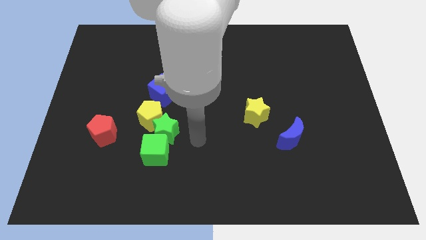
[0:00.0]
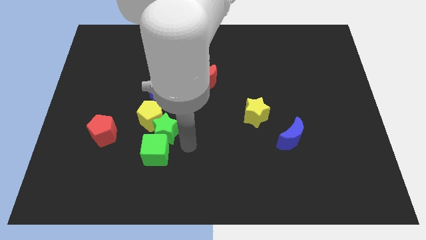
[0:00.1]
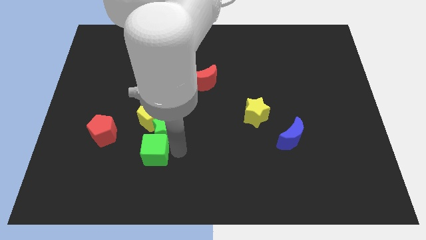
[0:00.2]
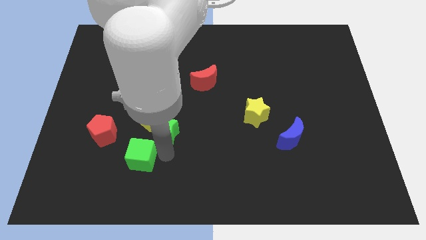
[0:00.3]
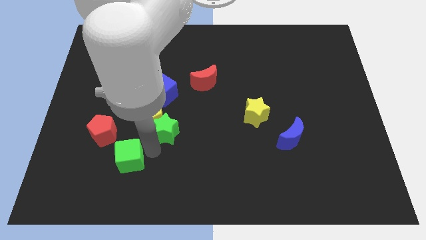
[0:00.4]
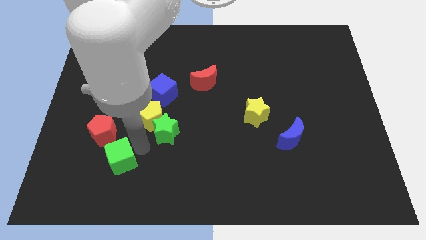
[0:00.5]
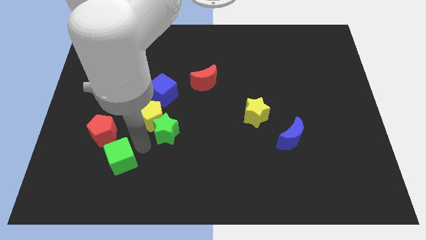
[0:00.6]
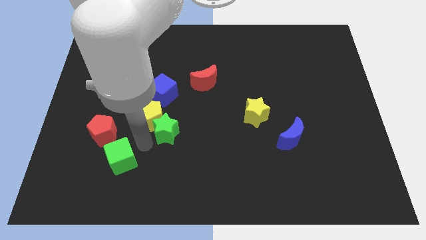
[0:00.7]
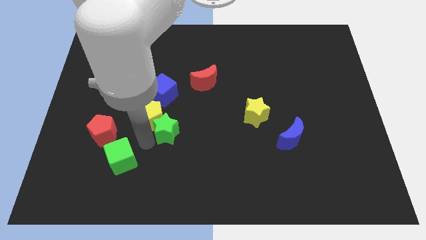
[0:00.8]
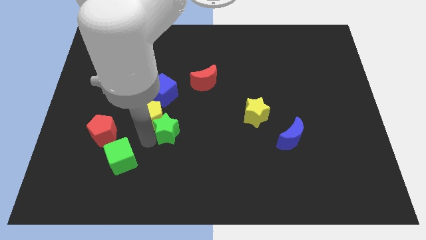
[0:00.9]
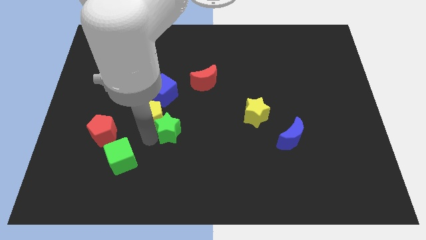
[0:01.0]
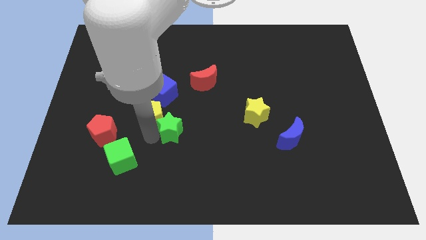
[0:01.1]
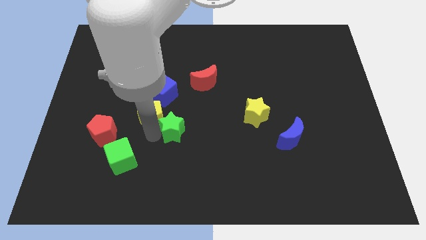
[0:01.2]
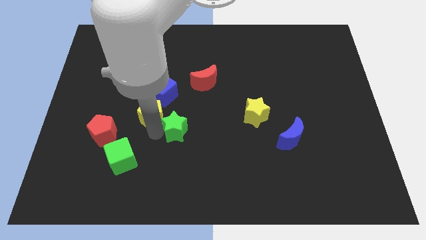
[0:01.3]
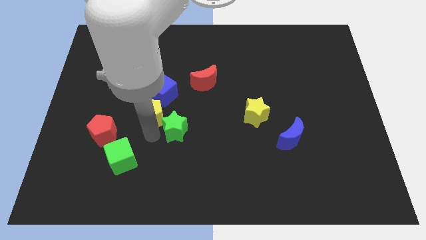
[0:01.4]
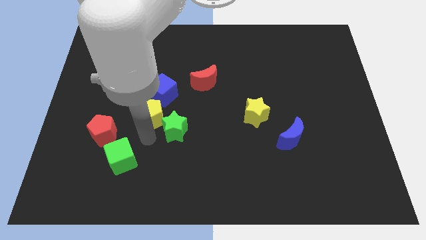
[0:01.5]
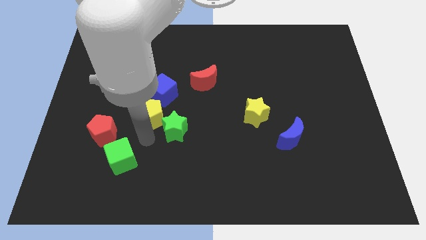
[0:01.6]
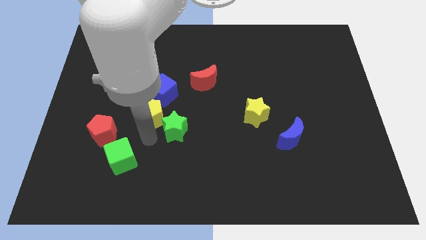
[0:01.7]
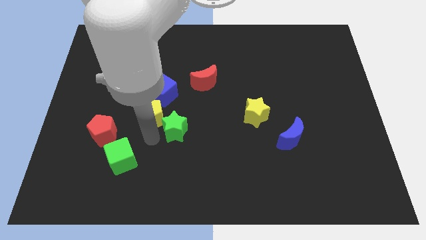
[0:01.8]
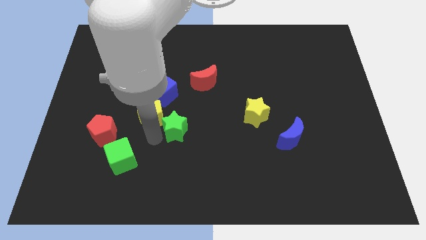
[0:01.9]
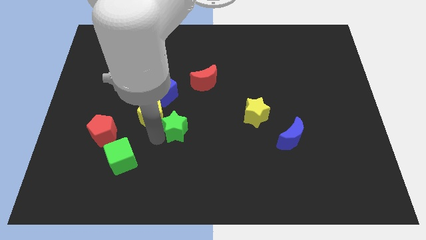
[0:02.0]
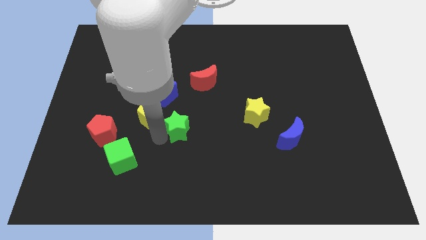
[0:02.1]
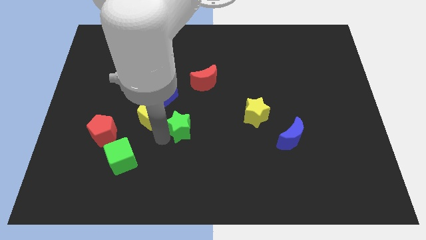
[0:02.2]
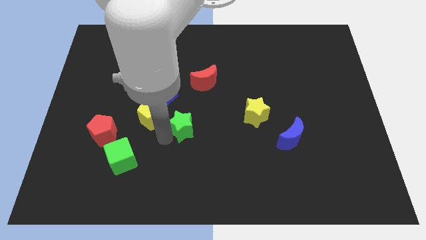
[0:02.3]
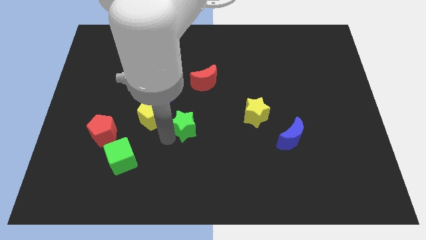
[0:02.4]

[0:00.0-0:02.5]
pull the green star apart from the yellow pentagon and green cube

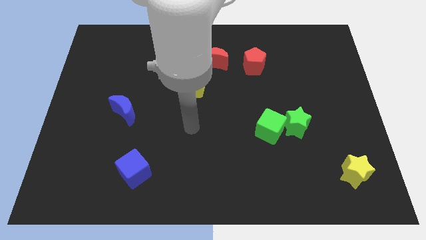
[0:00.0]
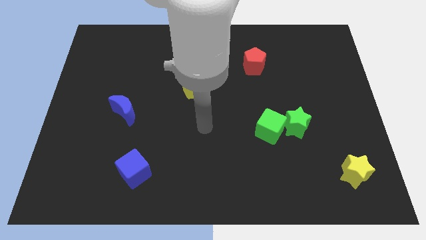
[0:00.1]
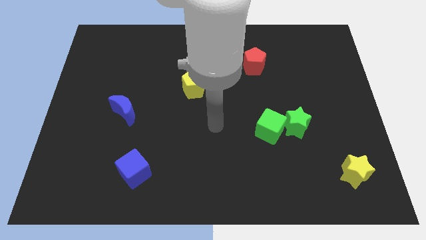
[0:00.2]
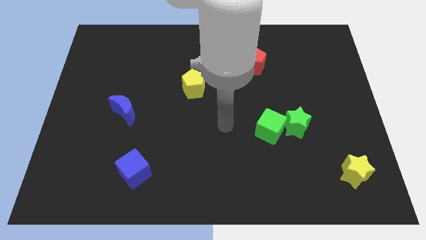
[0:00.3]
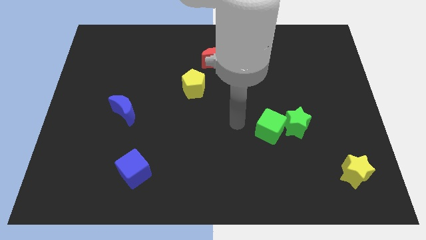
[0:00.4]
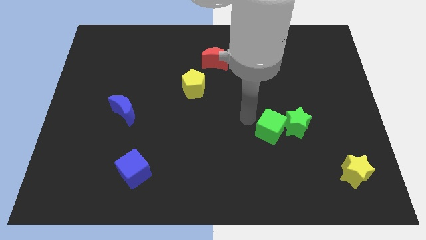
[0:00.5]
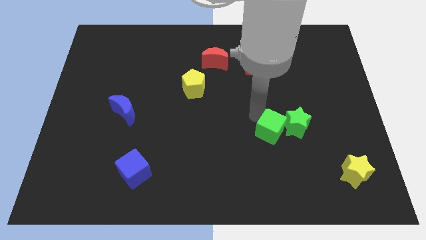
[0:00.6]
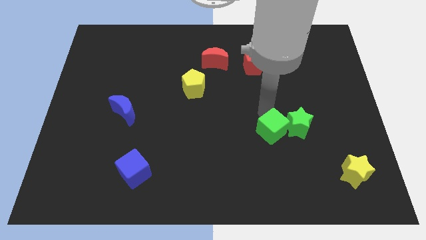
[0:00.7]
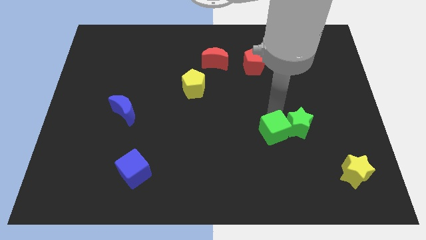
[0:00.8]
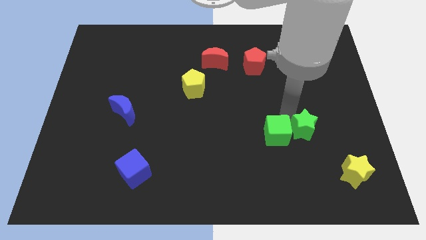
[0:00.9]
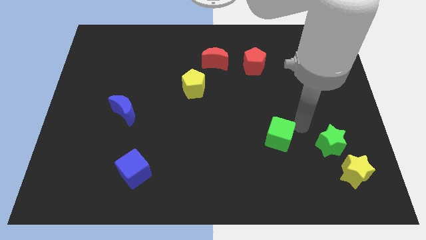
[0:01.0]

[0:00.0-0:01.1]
pull the green cube apart from the green star

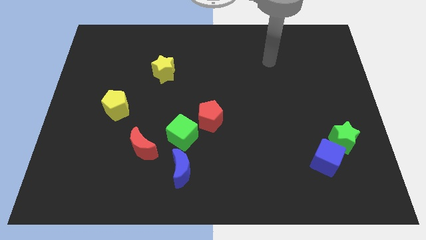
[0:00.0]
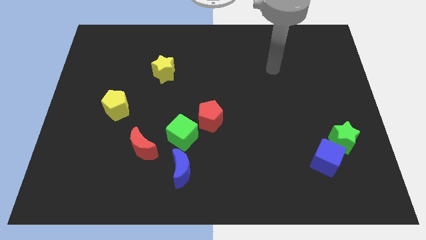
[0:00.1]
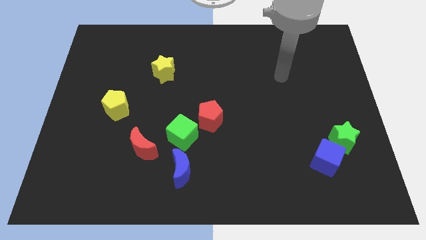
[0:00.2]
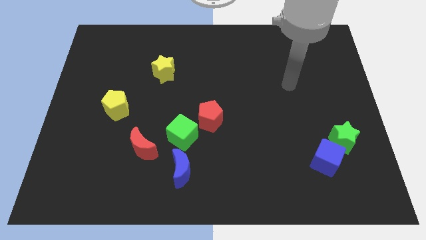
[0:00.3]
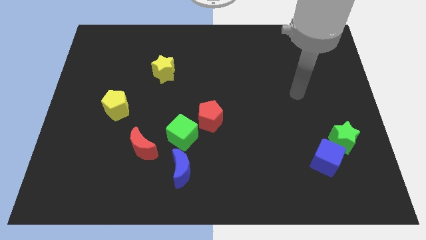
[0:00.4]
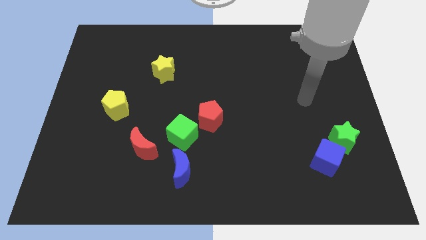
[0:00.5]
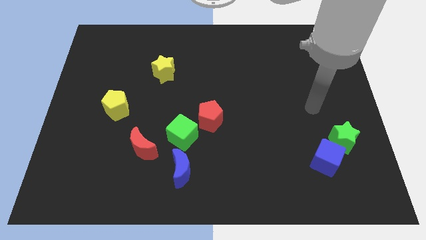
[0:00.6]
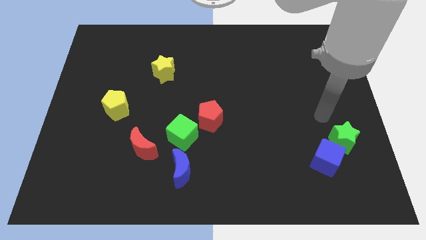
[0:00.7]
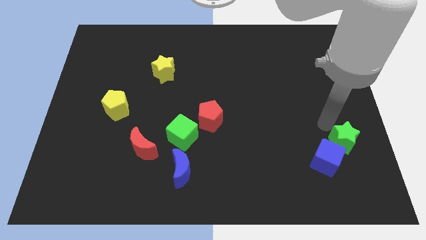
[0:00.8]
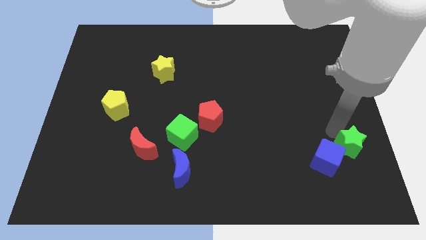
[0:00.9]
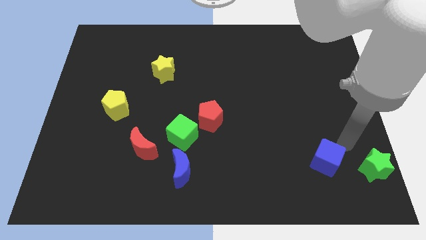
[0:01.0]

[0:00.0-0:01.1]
move the blue cube away from the green star

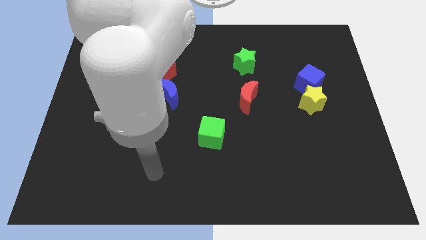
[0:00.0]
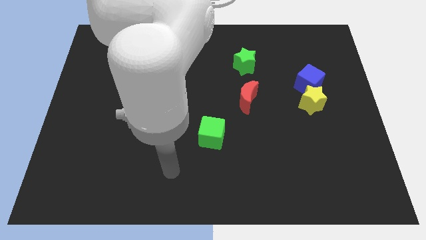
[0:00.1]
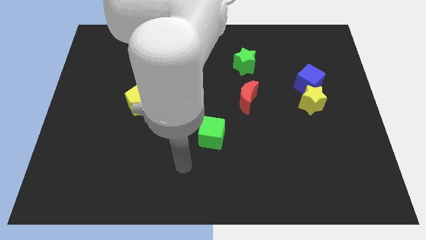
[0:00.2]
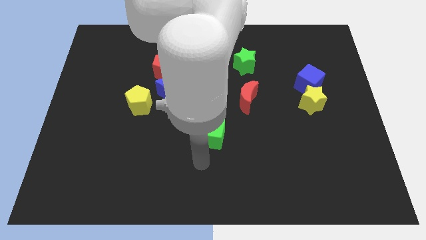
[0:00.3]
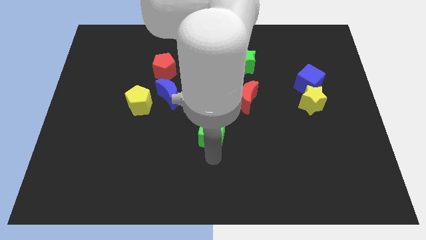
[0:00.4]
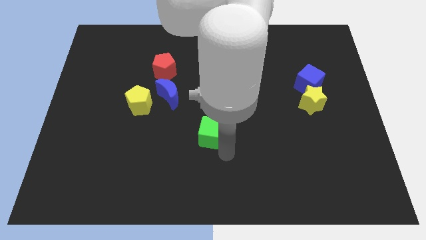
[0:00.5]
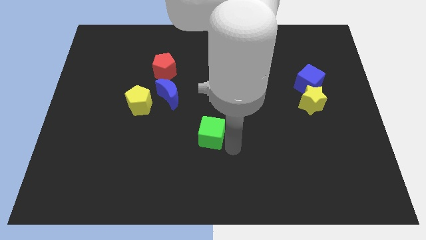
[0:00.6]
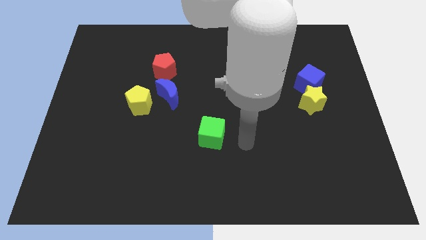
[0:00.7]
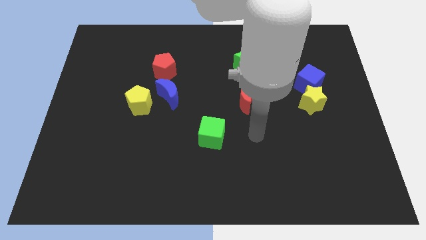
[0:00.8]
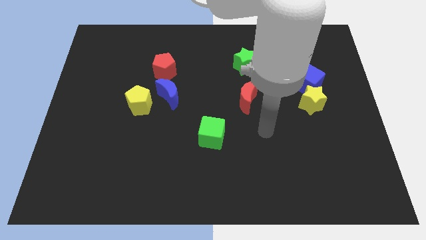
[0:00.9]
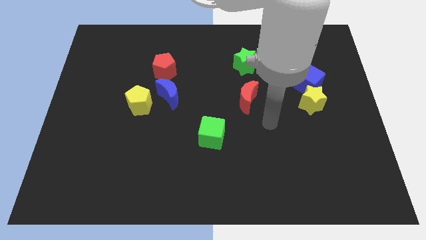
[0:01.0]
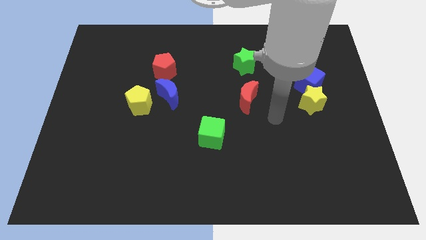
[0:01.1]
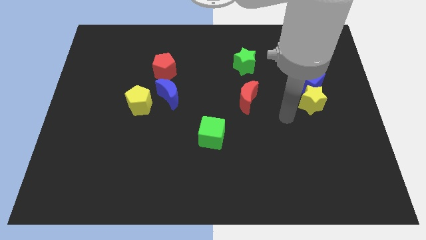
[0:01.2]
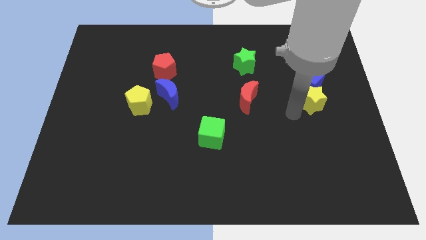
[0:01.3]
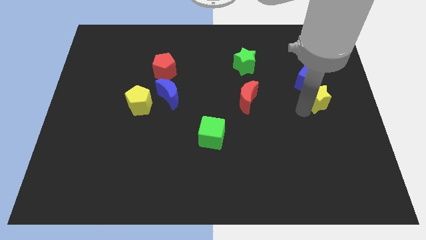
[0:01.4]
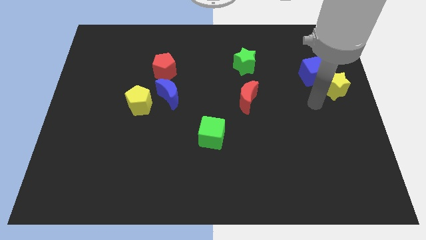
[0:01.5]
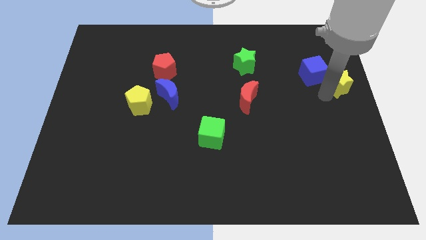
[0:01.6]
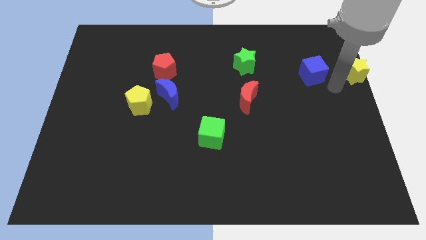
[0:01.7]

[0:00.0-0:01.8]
pull the blue cube apart from the yellow star

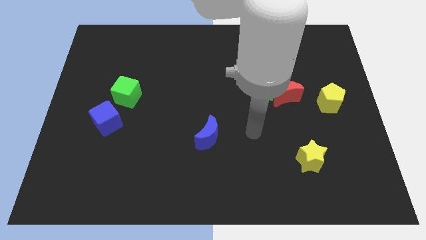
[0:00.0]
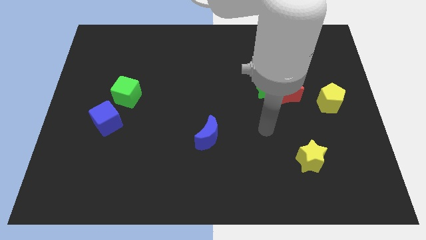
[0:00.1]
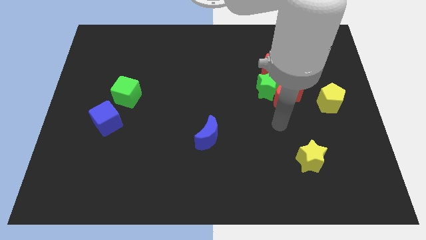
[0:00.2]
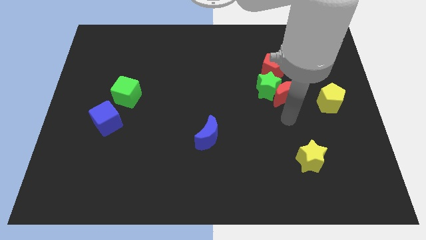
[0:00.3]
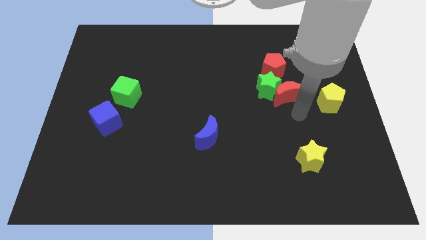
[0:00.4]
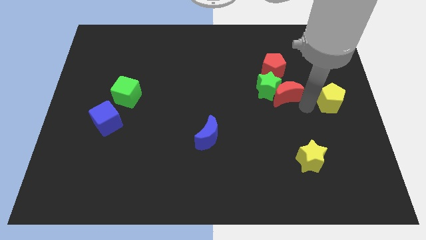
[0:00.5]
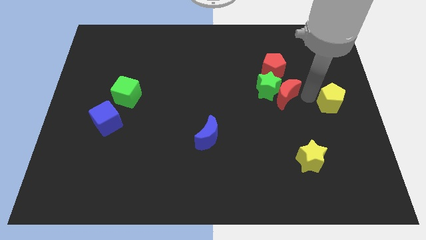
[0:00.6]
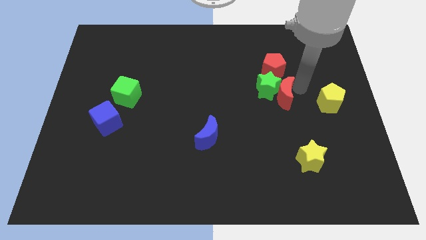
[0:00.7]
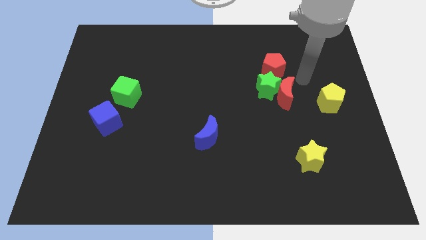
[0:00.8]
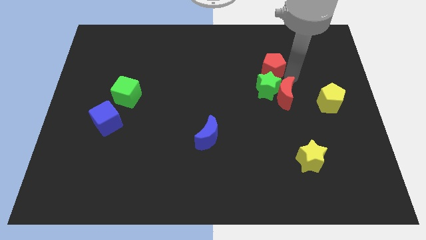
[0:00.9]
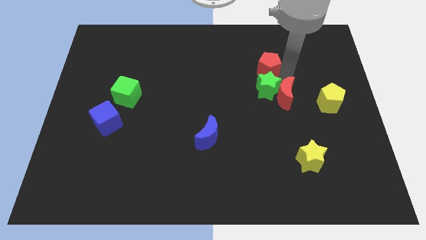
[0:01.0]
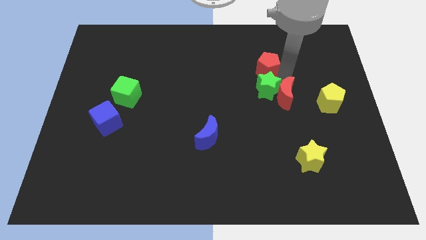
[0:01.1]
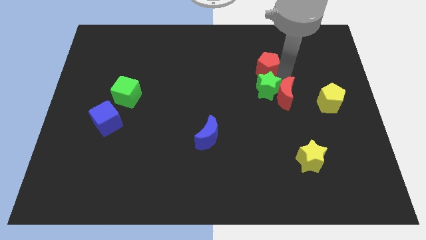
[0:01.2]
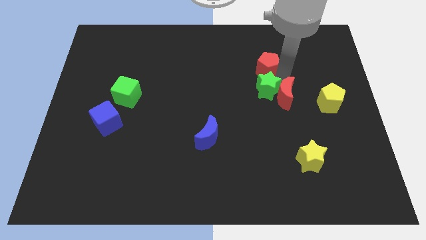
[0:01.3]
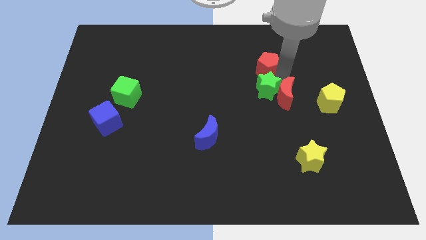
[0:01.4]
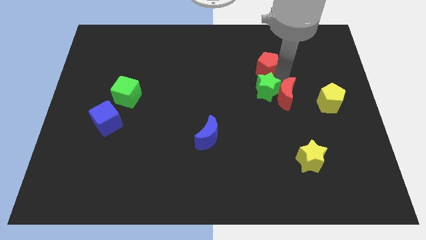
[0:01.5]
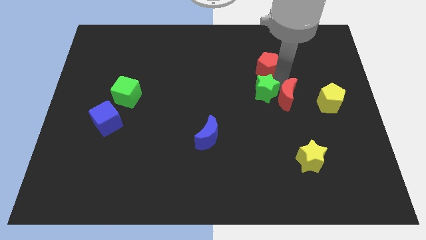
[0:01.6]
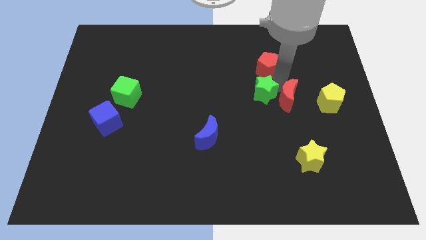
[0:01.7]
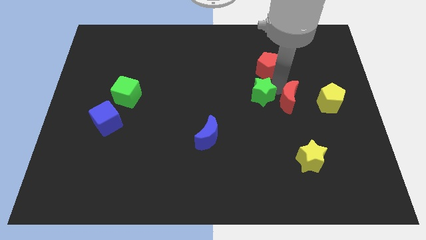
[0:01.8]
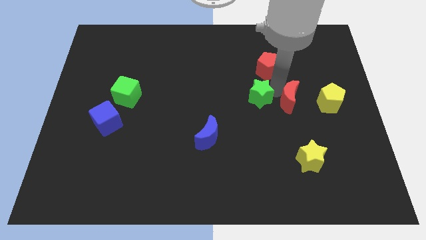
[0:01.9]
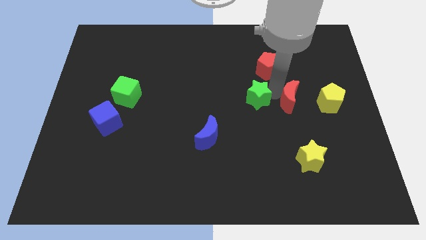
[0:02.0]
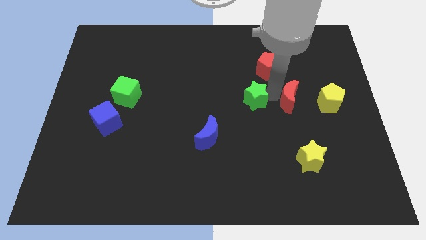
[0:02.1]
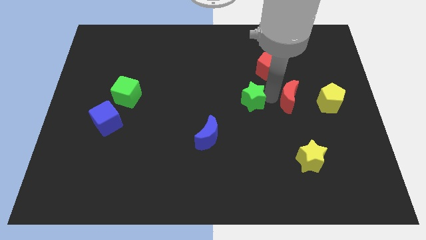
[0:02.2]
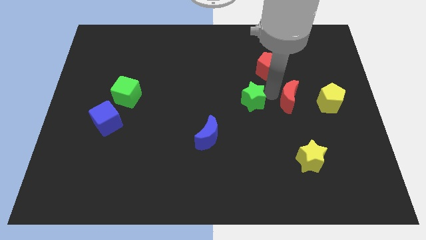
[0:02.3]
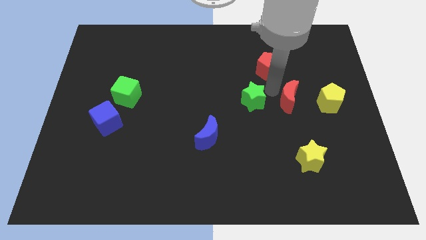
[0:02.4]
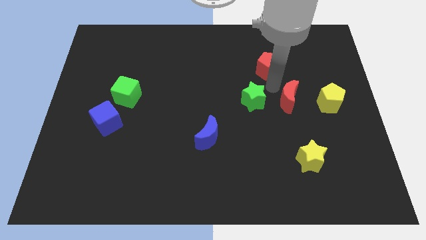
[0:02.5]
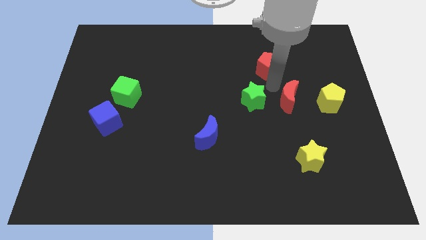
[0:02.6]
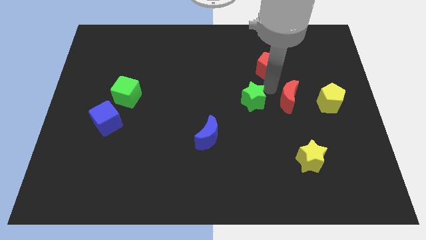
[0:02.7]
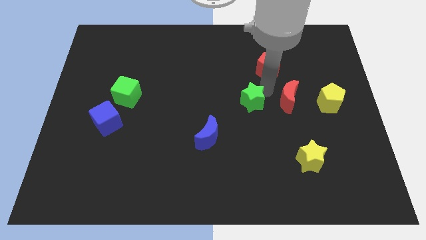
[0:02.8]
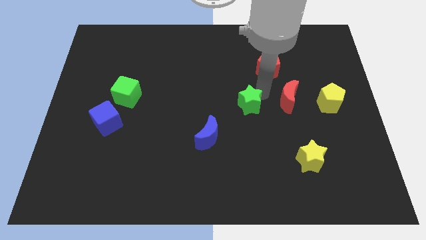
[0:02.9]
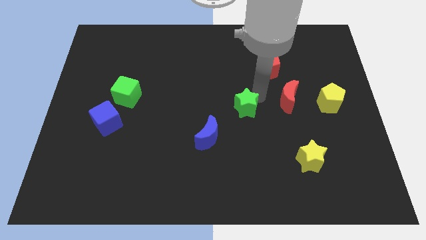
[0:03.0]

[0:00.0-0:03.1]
move the green star away from the red moon and red pentagon
